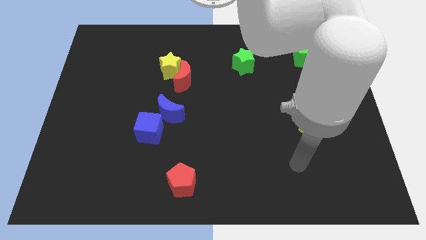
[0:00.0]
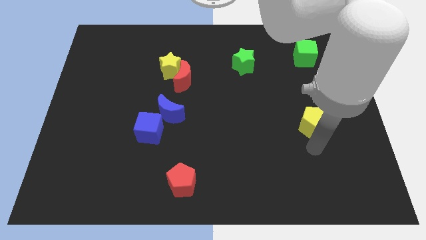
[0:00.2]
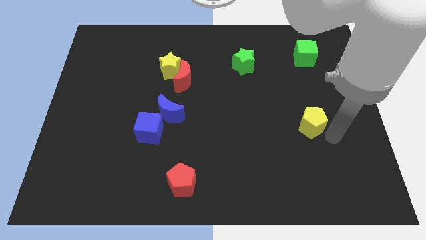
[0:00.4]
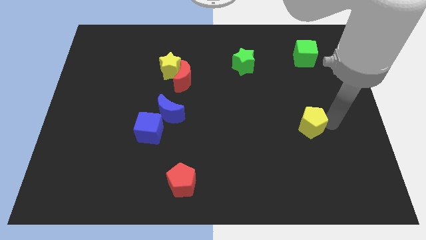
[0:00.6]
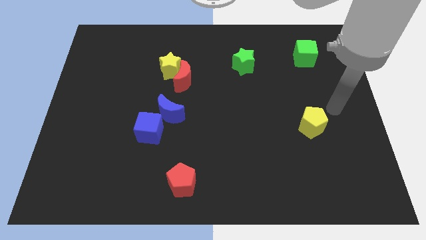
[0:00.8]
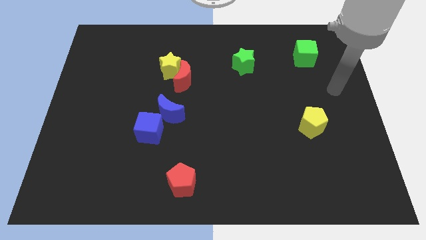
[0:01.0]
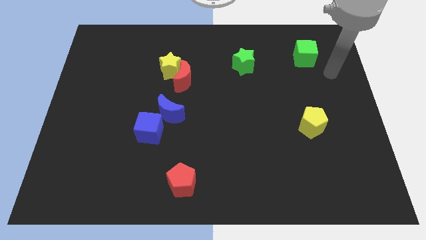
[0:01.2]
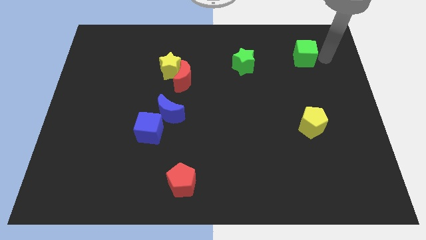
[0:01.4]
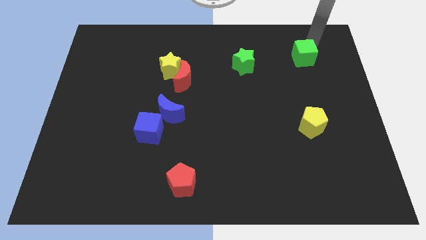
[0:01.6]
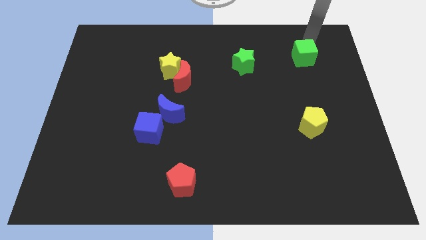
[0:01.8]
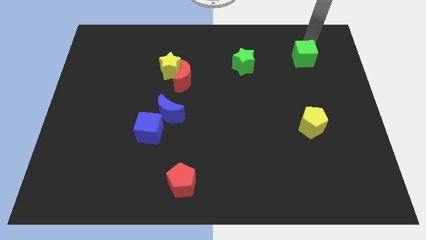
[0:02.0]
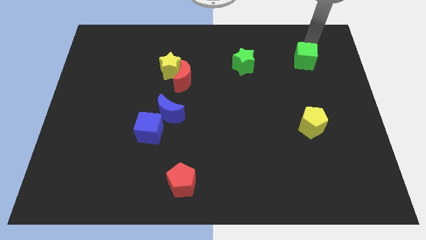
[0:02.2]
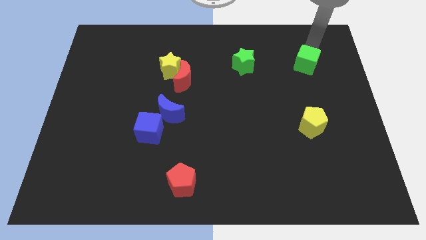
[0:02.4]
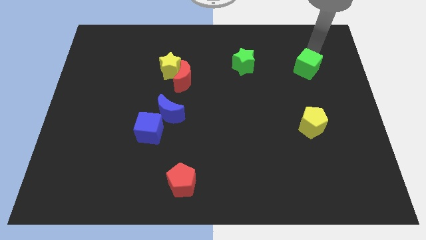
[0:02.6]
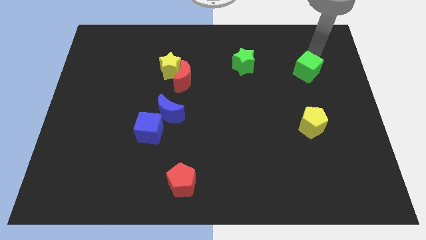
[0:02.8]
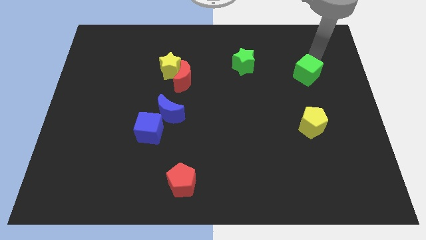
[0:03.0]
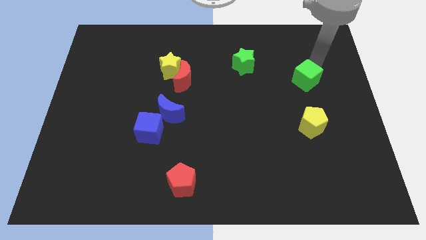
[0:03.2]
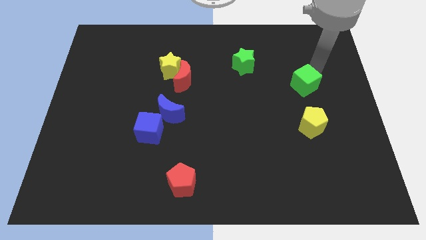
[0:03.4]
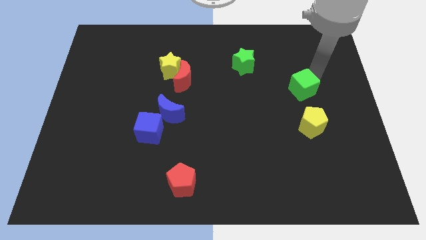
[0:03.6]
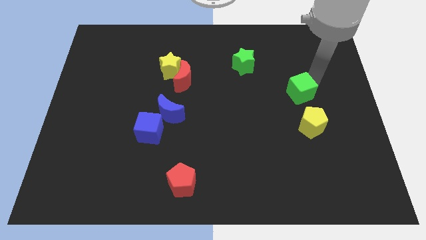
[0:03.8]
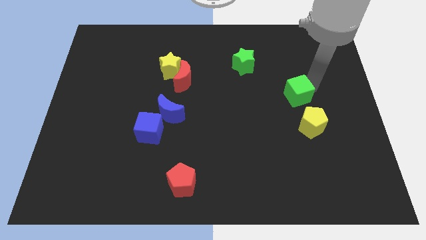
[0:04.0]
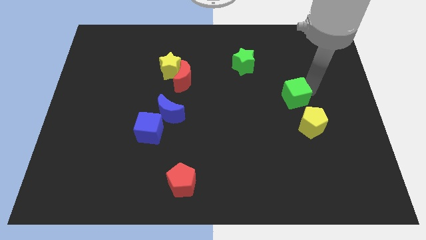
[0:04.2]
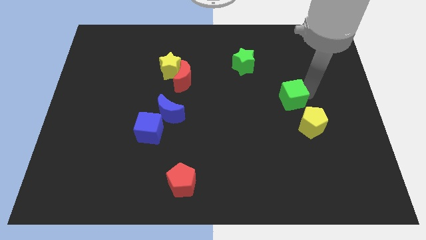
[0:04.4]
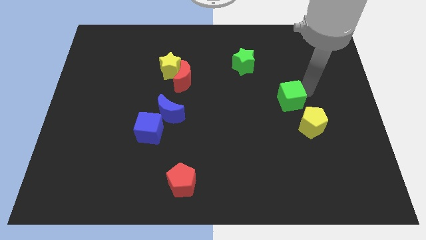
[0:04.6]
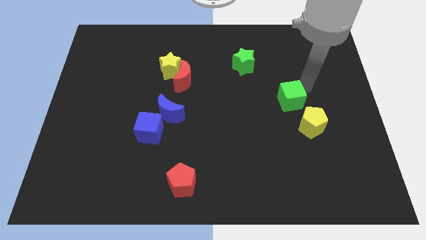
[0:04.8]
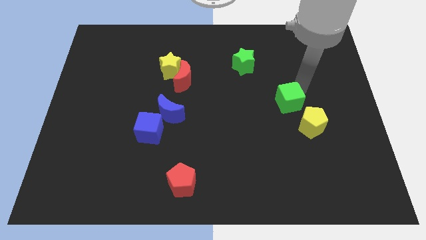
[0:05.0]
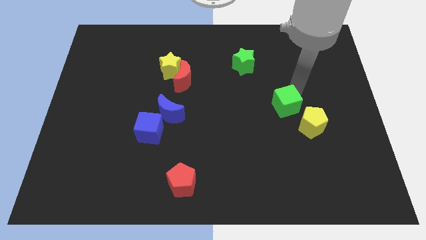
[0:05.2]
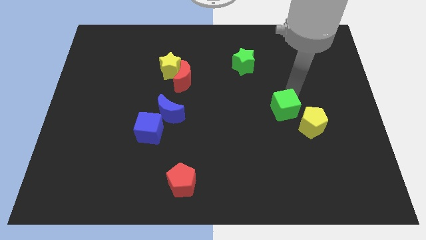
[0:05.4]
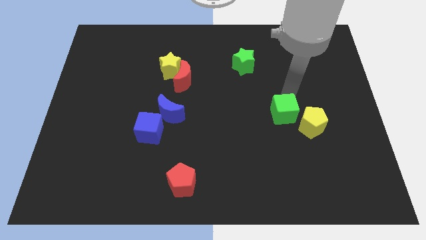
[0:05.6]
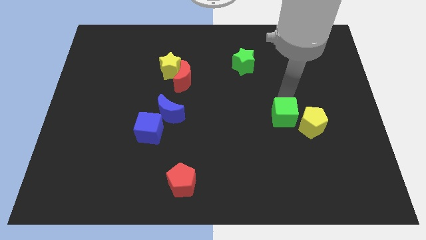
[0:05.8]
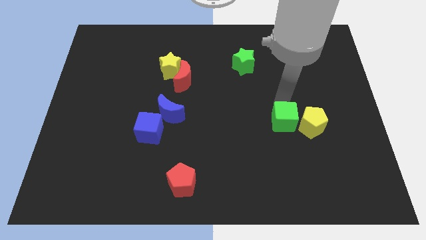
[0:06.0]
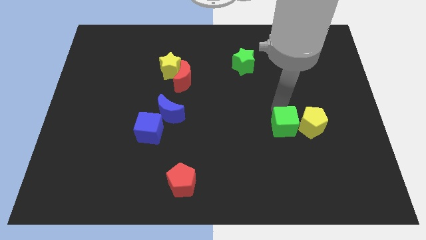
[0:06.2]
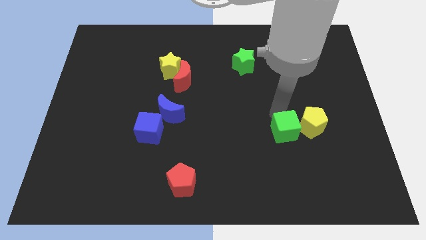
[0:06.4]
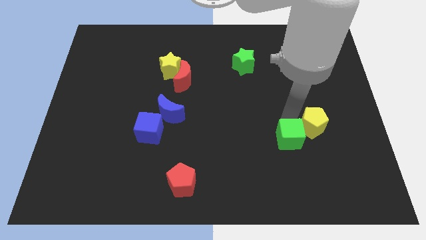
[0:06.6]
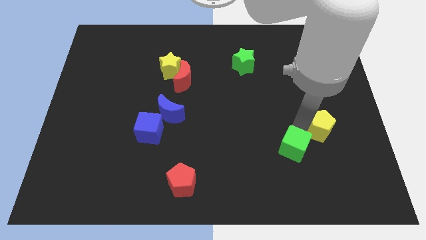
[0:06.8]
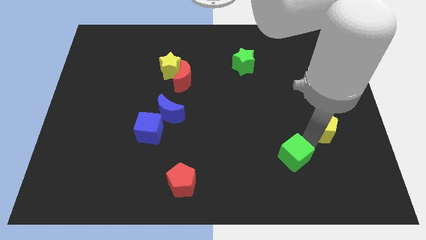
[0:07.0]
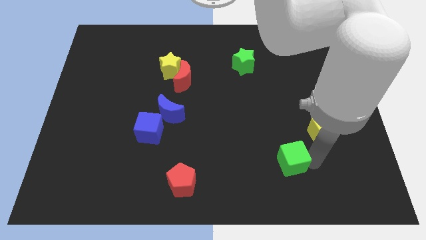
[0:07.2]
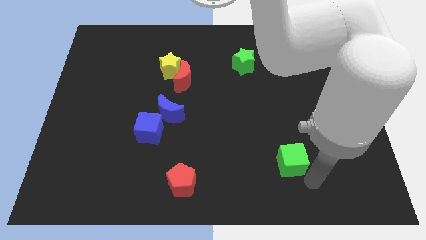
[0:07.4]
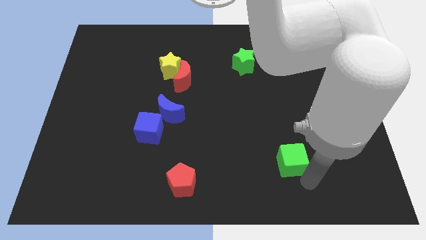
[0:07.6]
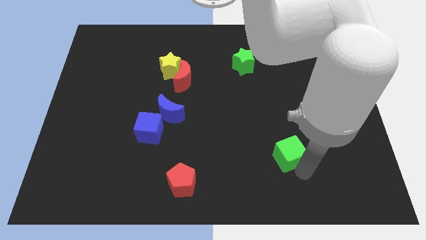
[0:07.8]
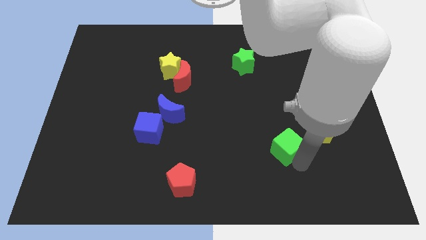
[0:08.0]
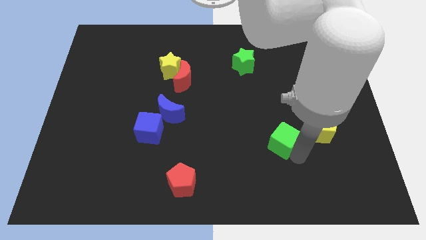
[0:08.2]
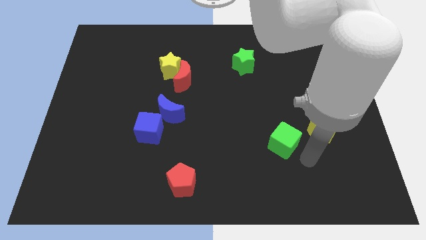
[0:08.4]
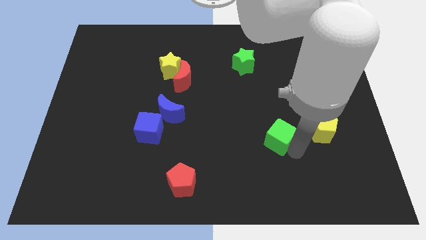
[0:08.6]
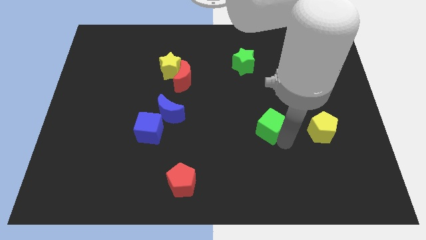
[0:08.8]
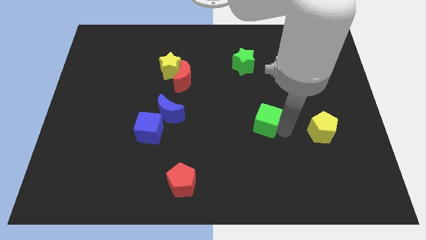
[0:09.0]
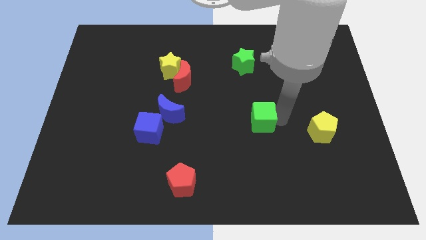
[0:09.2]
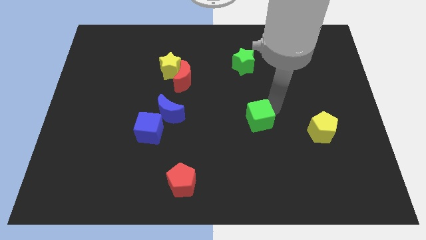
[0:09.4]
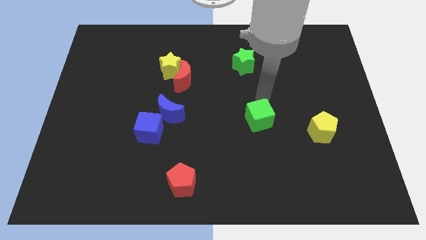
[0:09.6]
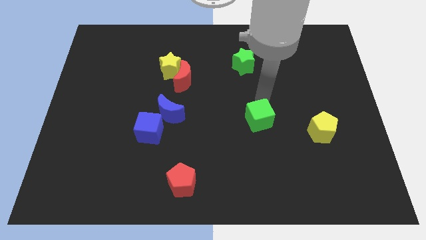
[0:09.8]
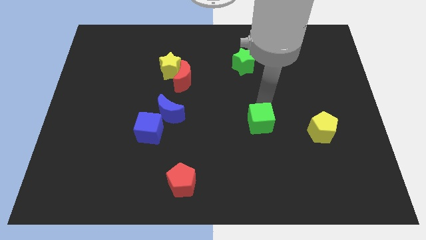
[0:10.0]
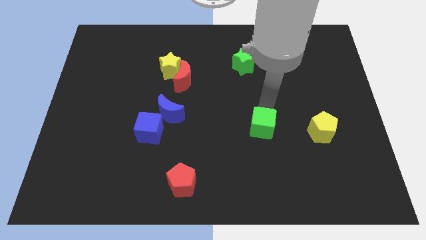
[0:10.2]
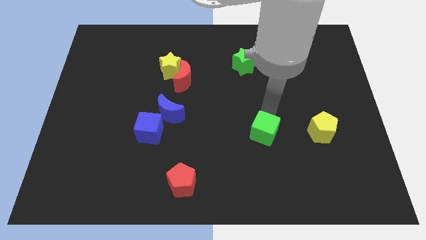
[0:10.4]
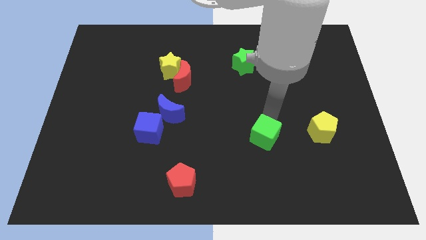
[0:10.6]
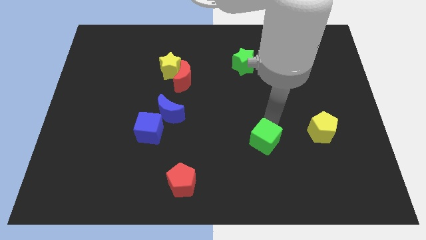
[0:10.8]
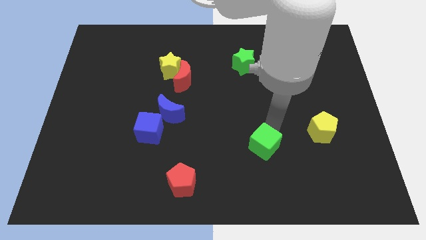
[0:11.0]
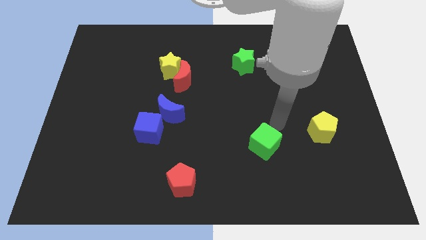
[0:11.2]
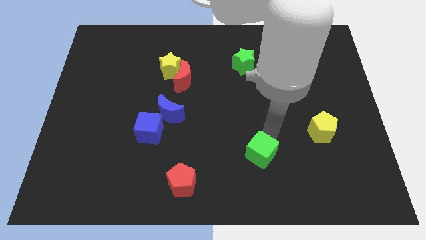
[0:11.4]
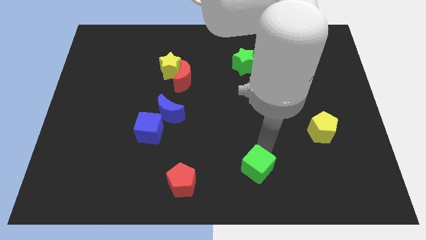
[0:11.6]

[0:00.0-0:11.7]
slide the green cube to the bottom side

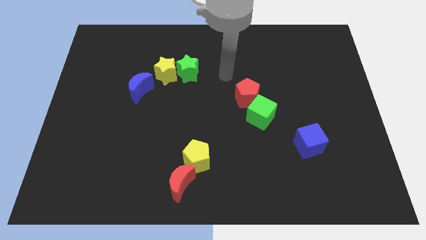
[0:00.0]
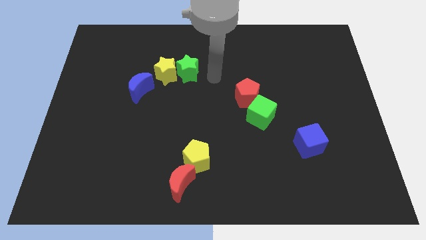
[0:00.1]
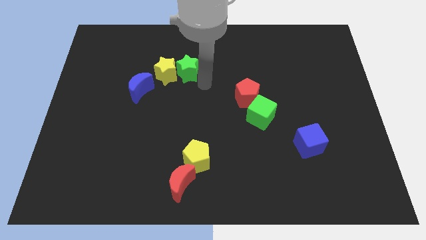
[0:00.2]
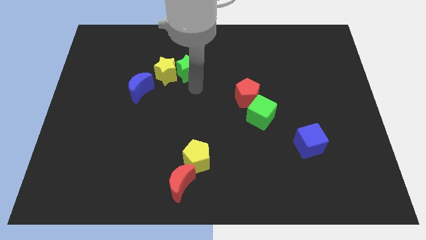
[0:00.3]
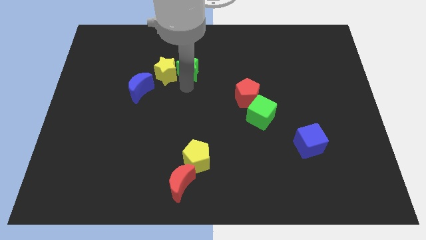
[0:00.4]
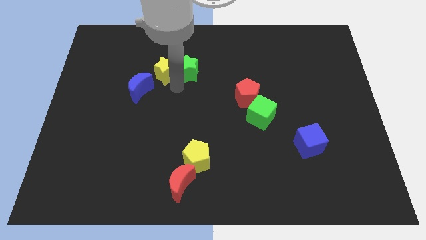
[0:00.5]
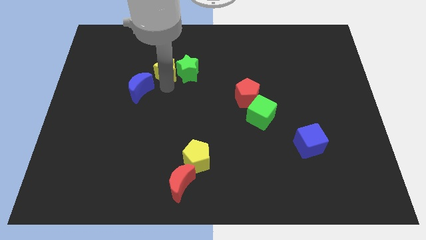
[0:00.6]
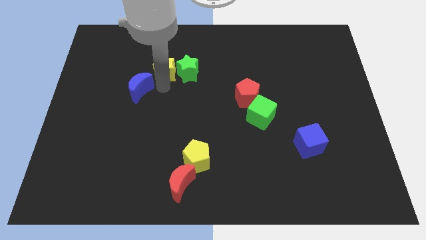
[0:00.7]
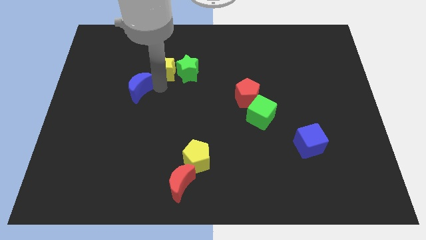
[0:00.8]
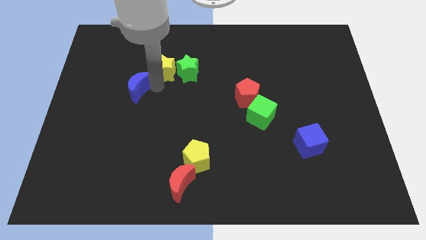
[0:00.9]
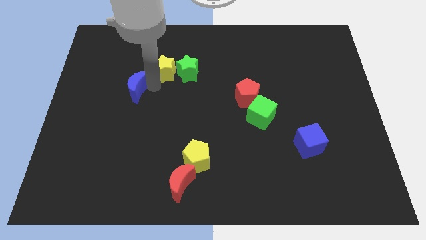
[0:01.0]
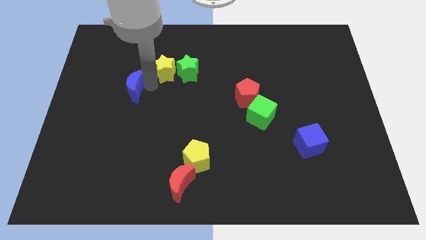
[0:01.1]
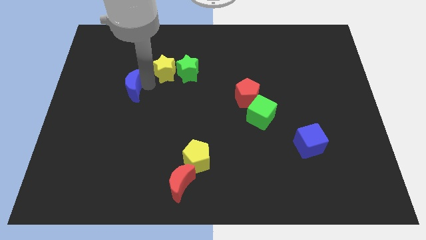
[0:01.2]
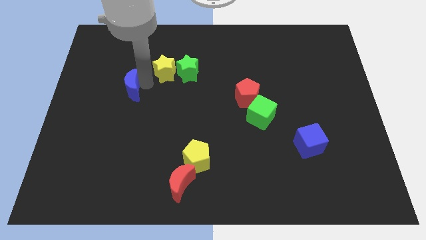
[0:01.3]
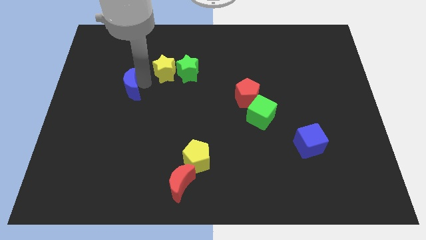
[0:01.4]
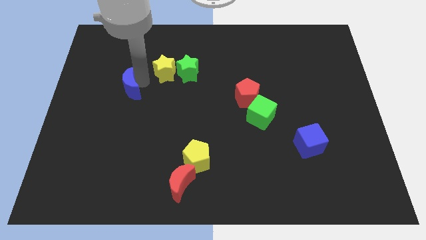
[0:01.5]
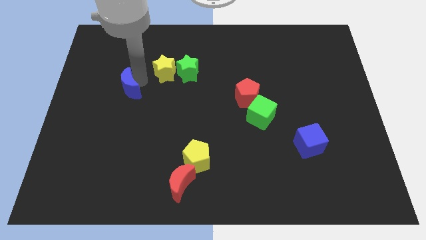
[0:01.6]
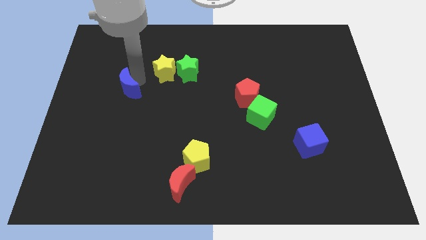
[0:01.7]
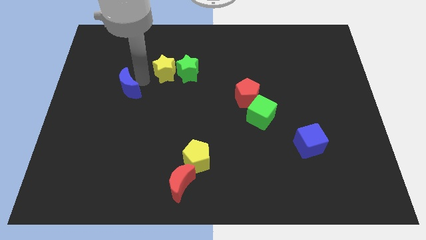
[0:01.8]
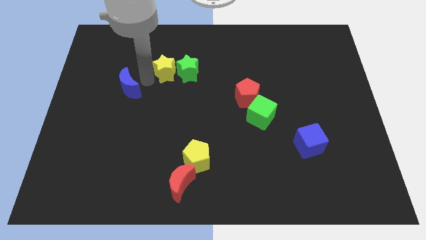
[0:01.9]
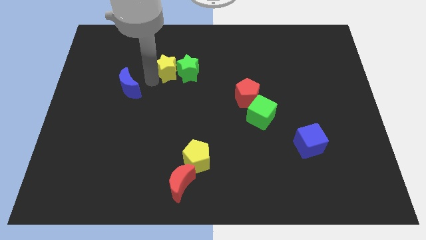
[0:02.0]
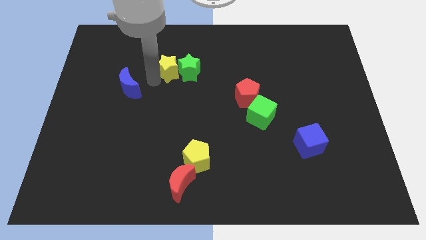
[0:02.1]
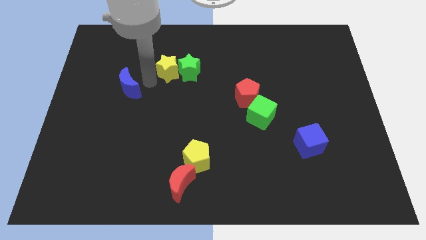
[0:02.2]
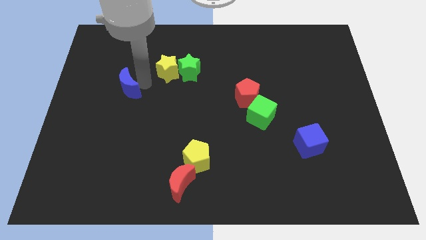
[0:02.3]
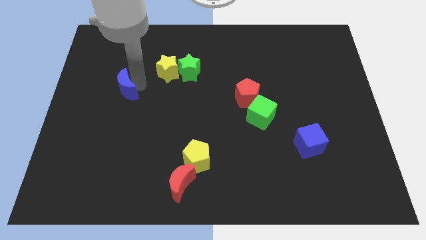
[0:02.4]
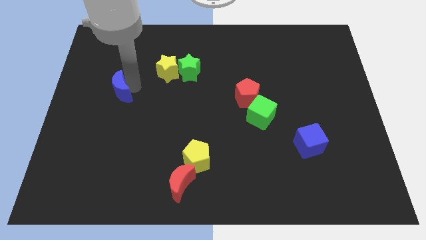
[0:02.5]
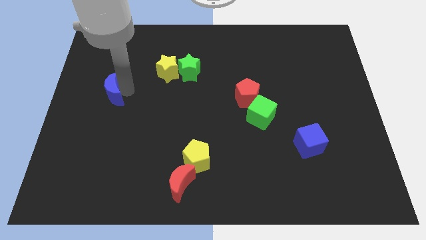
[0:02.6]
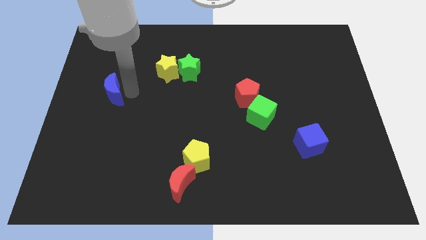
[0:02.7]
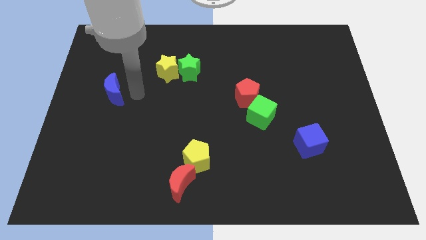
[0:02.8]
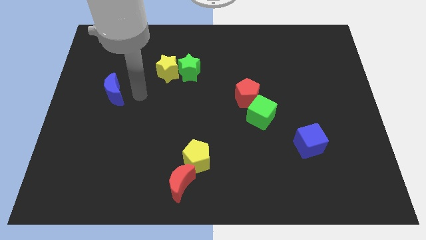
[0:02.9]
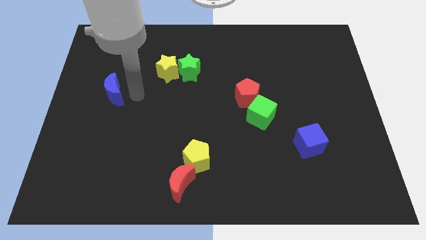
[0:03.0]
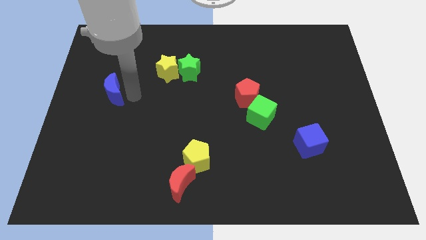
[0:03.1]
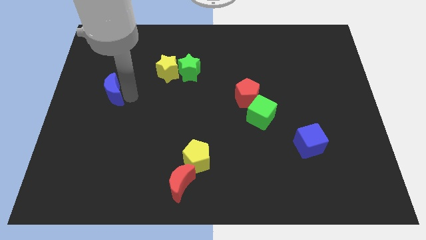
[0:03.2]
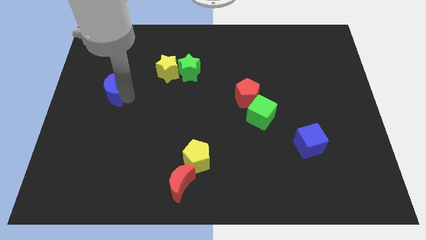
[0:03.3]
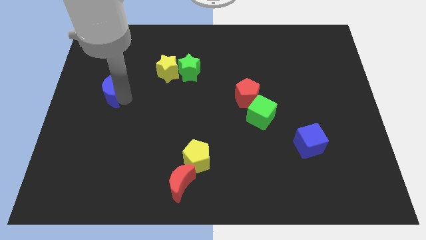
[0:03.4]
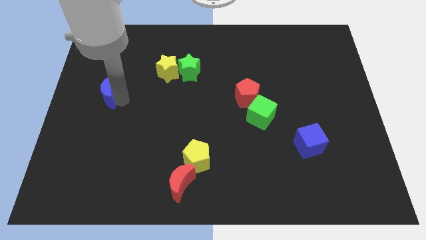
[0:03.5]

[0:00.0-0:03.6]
slide the blue moon to the center left
